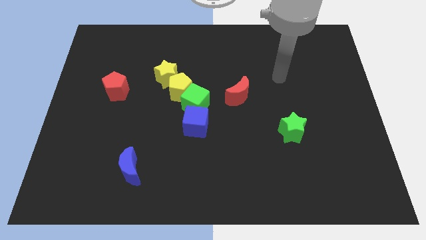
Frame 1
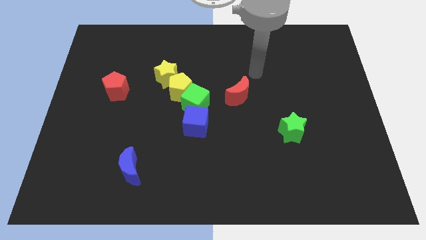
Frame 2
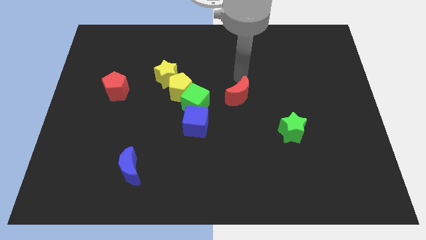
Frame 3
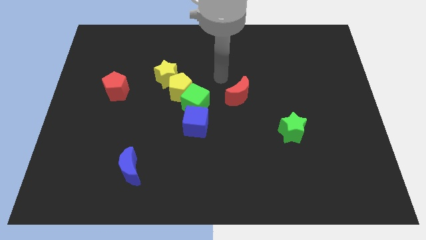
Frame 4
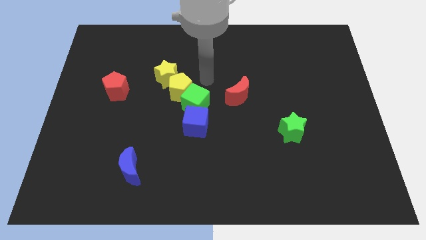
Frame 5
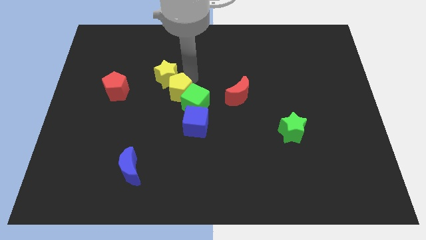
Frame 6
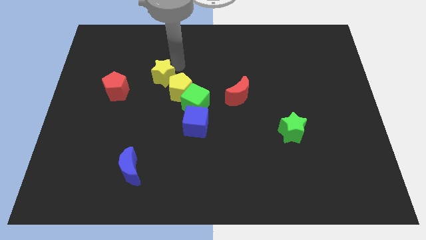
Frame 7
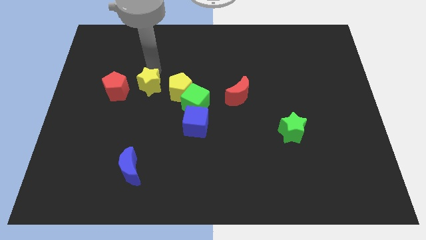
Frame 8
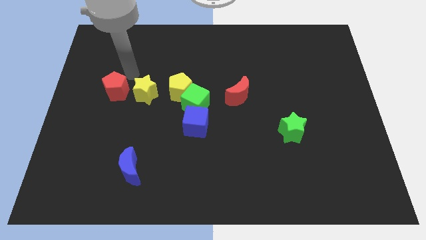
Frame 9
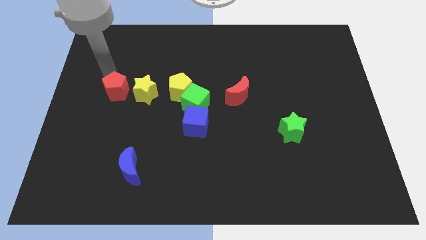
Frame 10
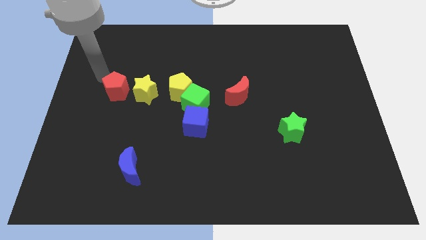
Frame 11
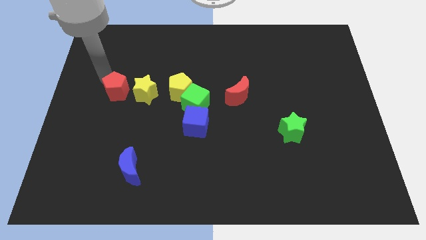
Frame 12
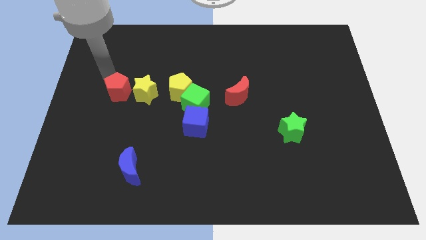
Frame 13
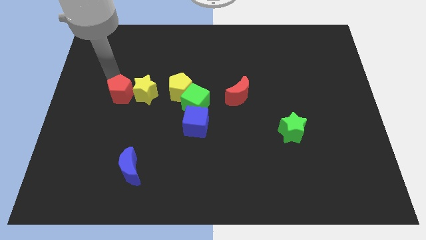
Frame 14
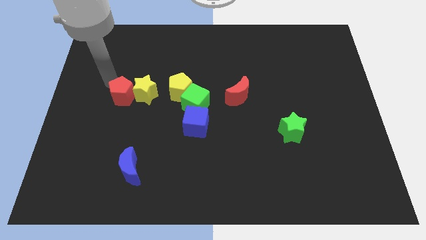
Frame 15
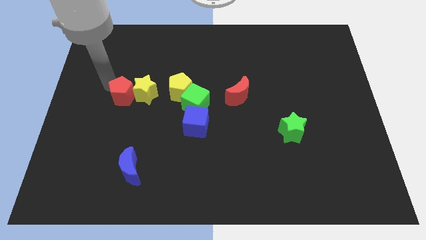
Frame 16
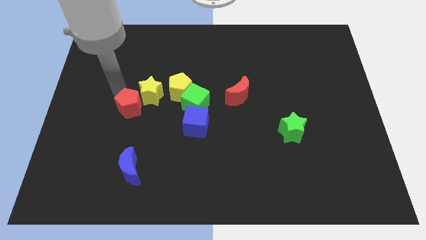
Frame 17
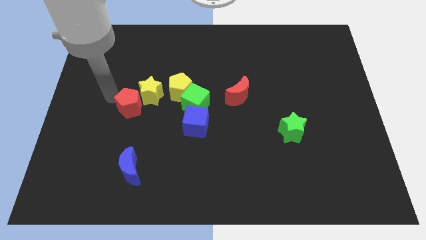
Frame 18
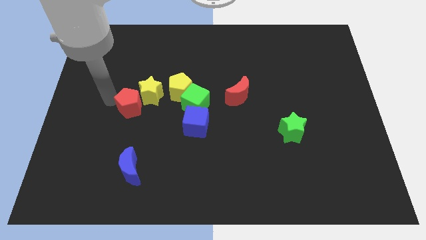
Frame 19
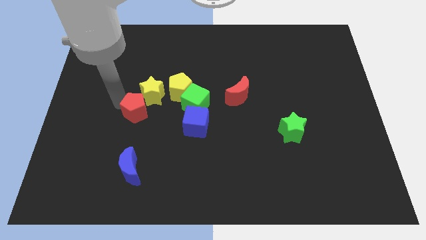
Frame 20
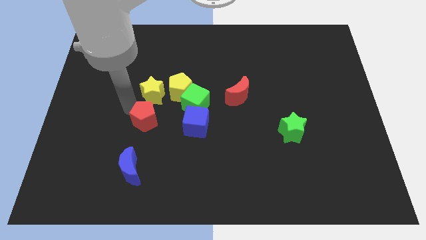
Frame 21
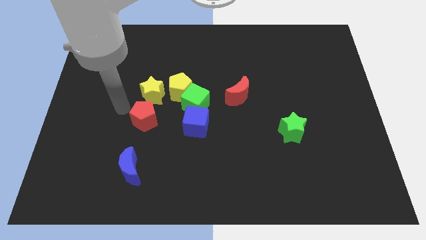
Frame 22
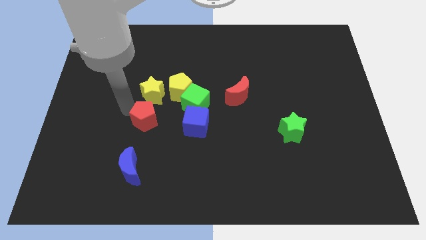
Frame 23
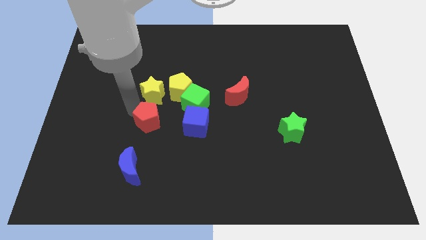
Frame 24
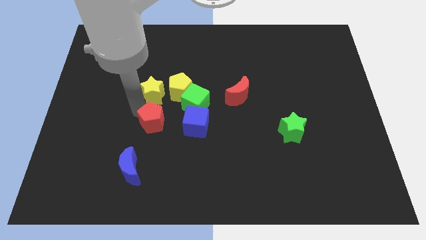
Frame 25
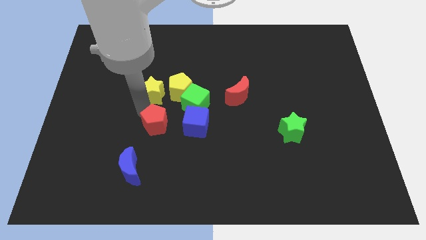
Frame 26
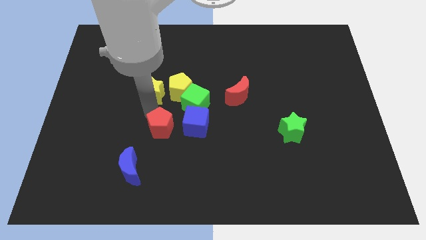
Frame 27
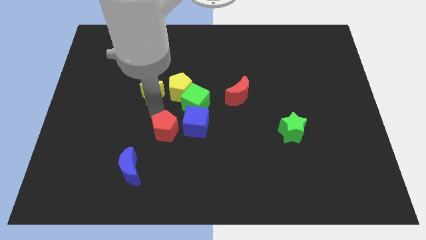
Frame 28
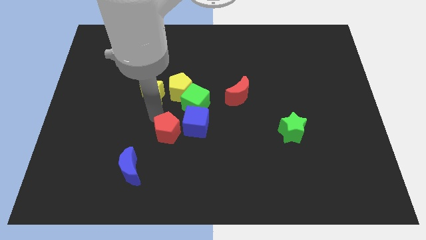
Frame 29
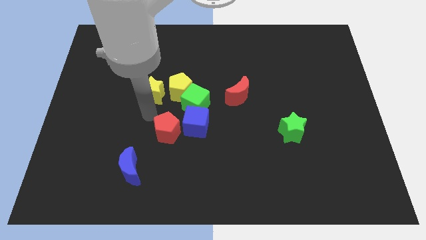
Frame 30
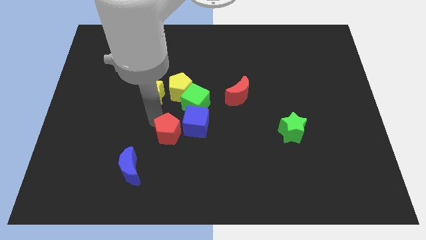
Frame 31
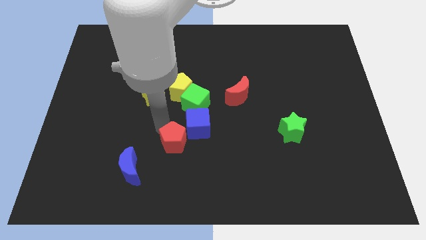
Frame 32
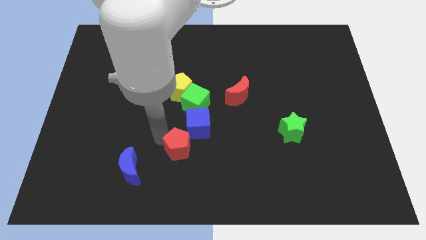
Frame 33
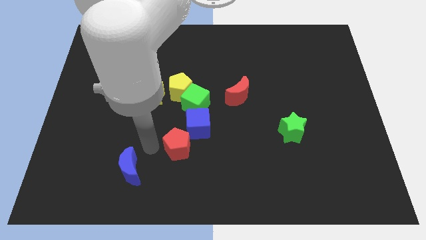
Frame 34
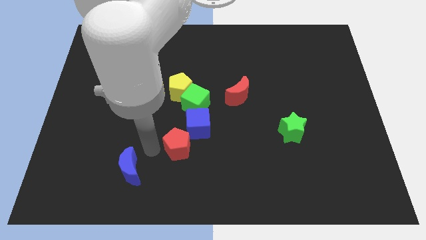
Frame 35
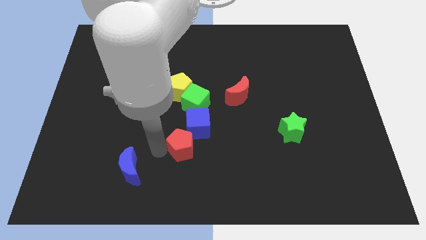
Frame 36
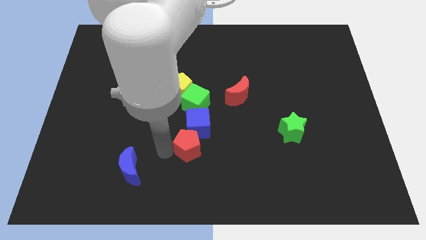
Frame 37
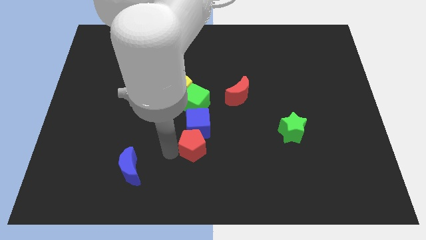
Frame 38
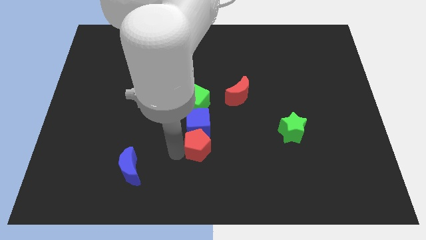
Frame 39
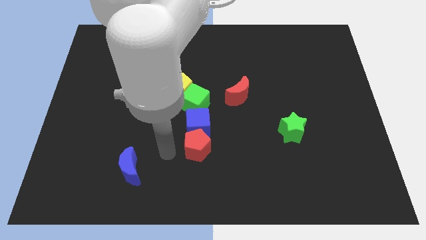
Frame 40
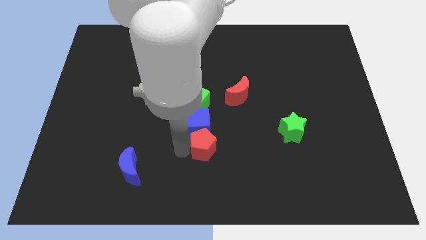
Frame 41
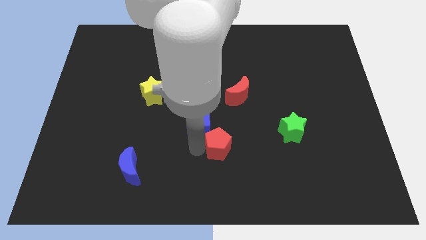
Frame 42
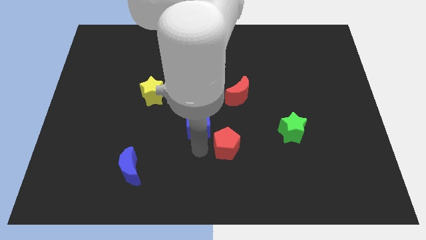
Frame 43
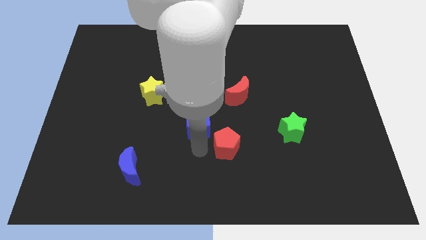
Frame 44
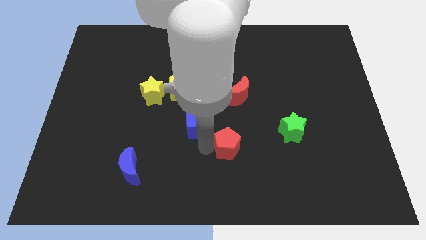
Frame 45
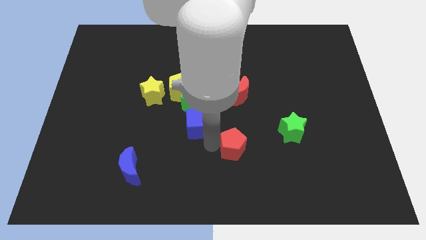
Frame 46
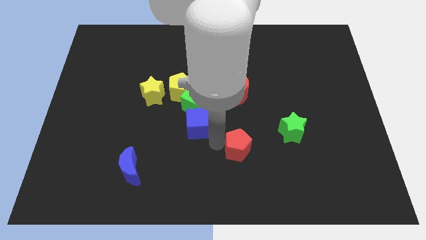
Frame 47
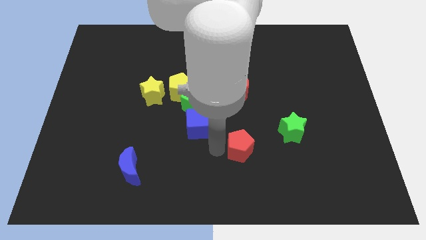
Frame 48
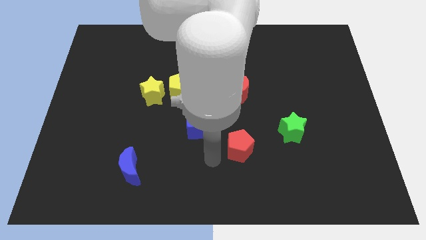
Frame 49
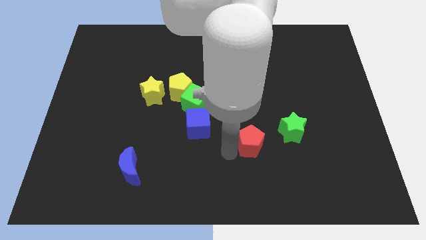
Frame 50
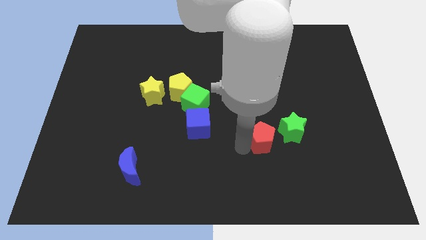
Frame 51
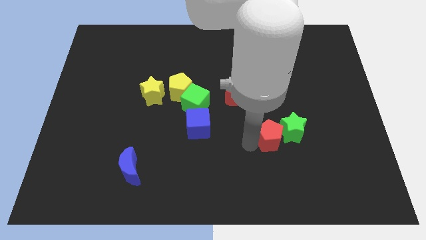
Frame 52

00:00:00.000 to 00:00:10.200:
slide the red pentagon towards the green star

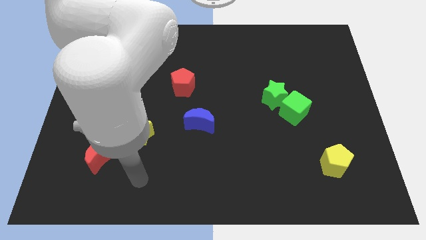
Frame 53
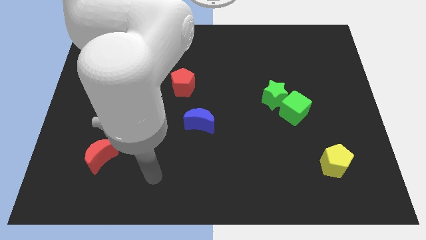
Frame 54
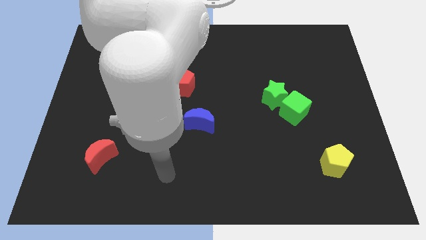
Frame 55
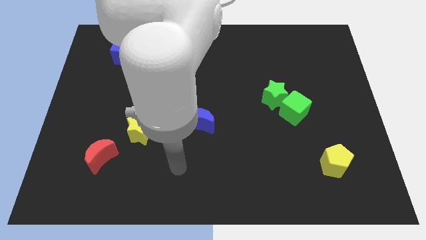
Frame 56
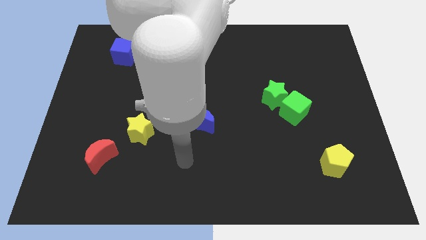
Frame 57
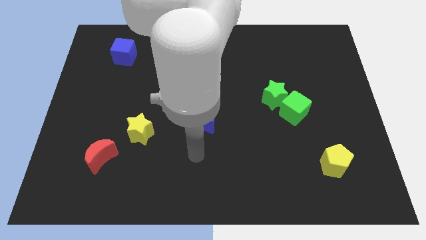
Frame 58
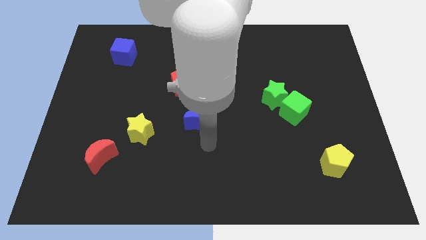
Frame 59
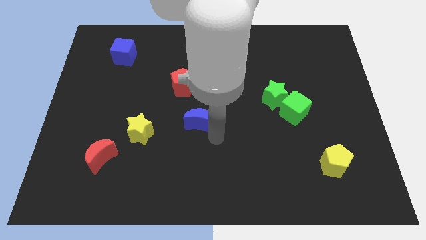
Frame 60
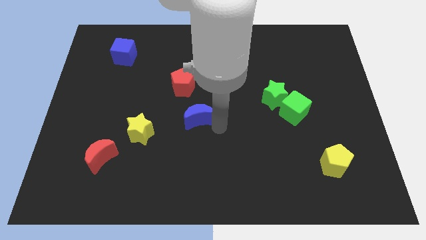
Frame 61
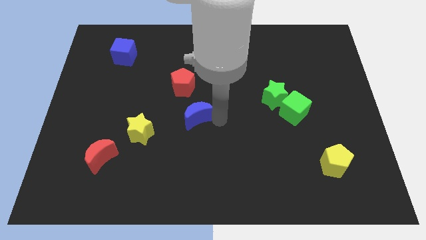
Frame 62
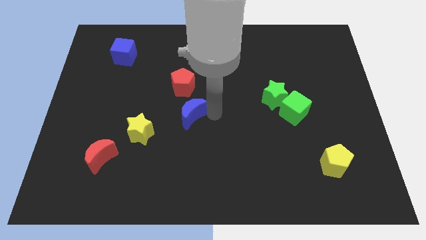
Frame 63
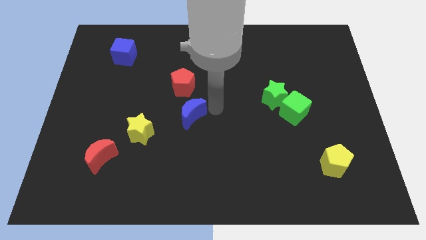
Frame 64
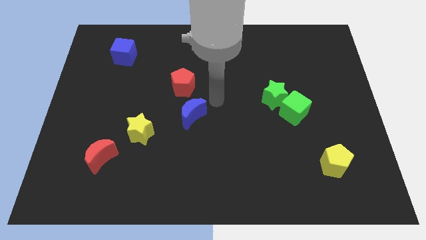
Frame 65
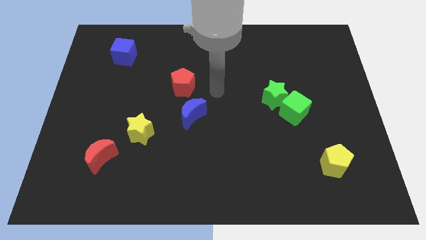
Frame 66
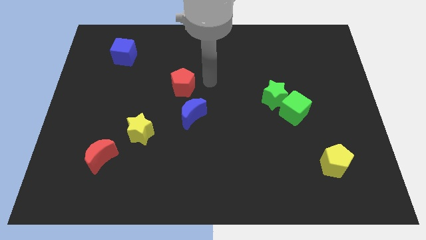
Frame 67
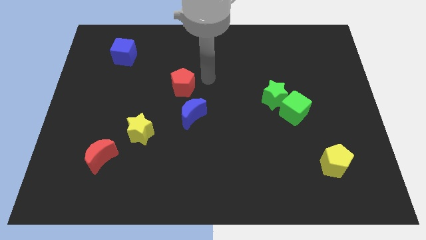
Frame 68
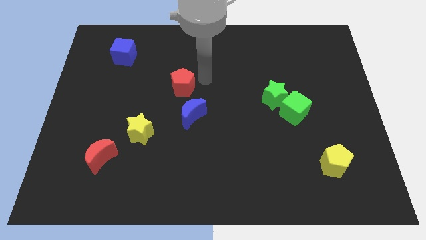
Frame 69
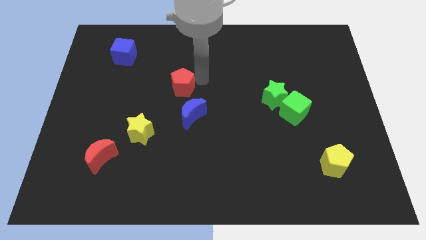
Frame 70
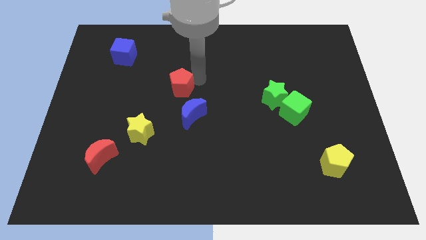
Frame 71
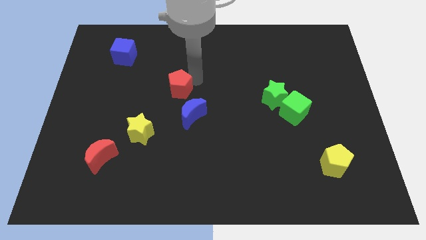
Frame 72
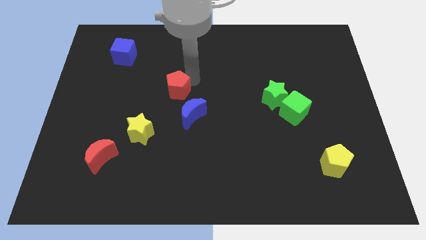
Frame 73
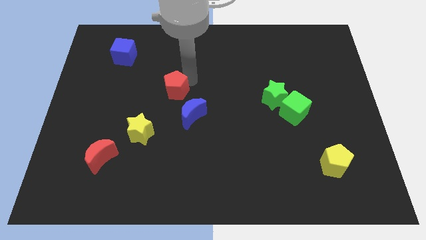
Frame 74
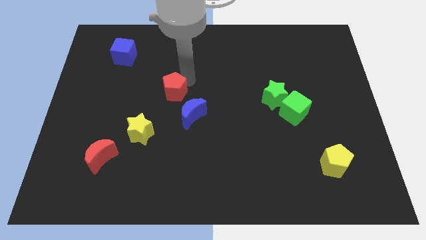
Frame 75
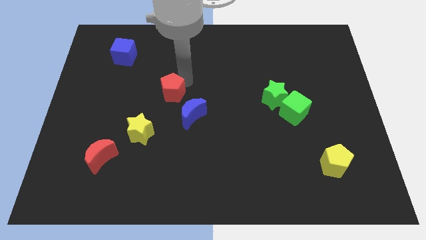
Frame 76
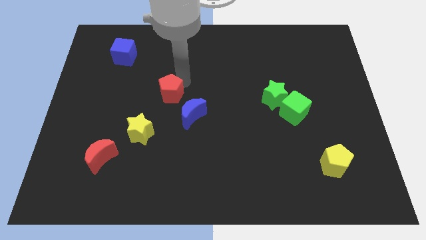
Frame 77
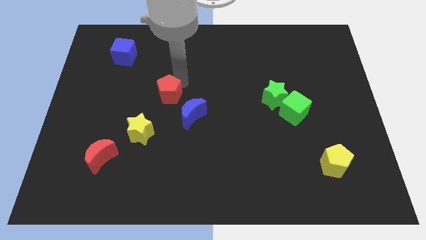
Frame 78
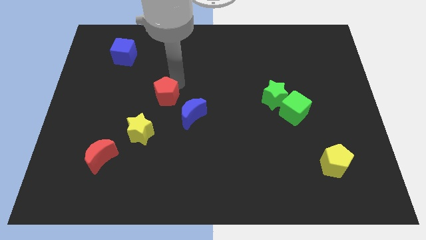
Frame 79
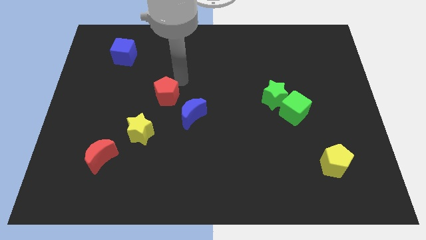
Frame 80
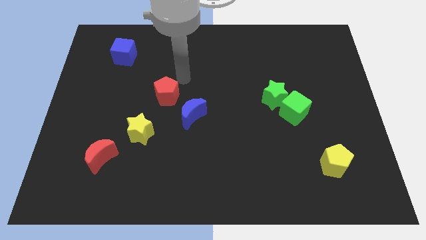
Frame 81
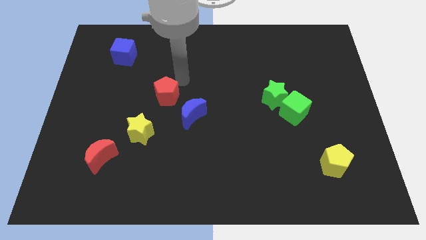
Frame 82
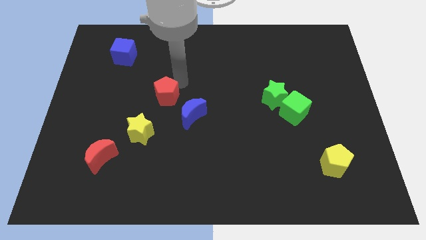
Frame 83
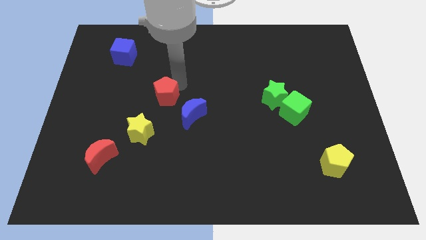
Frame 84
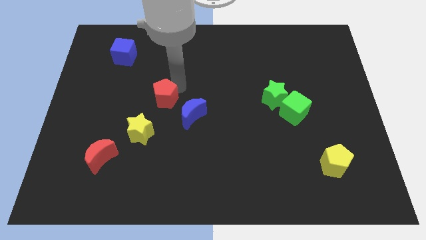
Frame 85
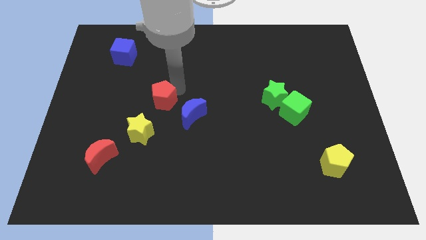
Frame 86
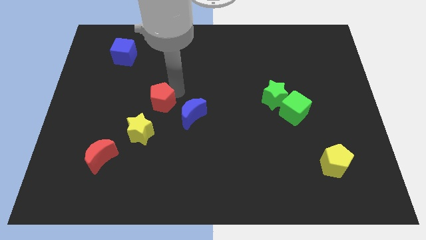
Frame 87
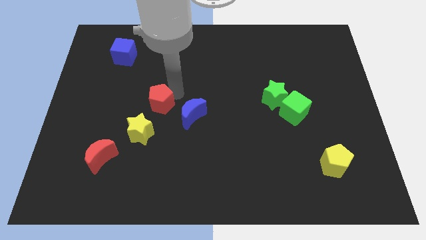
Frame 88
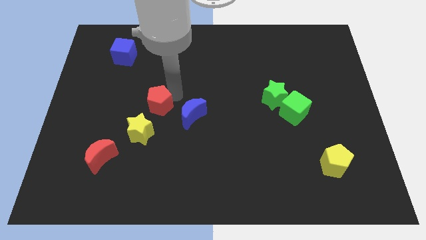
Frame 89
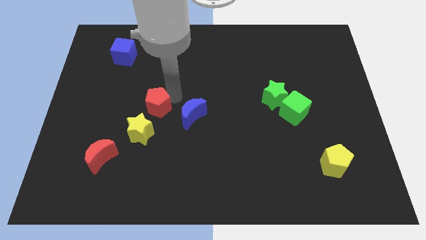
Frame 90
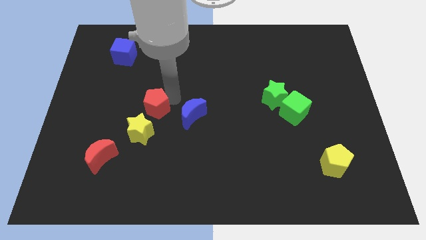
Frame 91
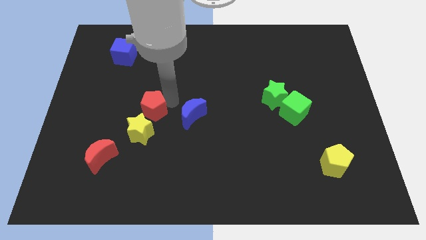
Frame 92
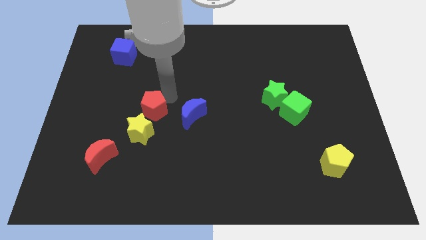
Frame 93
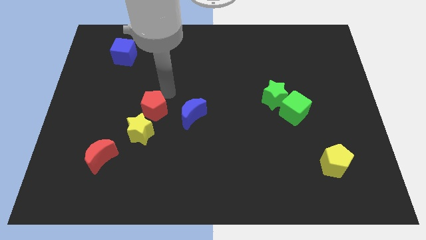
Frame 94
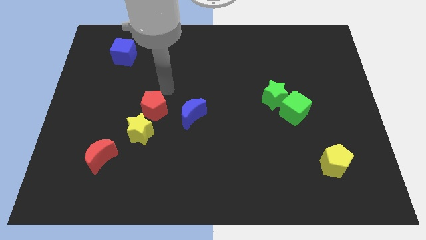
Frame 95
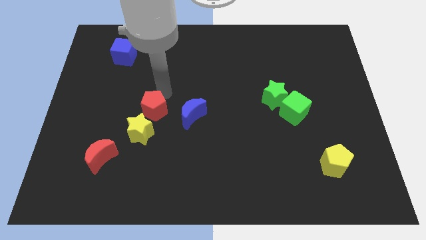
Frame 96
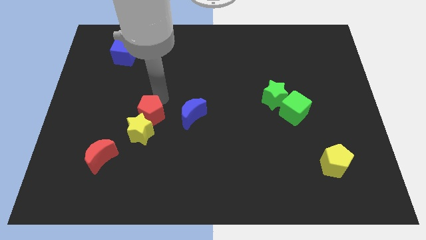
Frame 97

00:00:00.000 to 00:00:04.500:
put the red pentagon close to the yellow star
